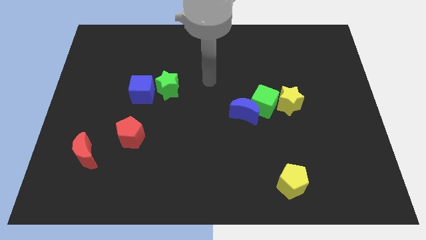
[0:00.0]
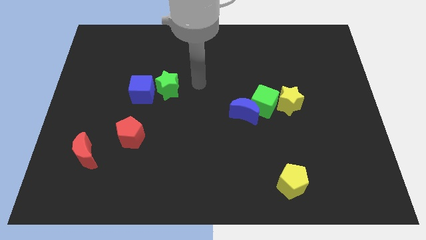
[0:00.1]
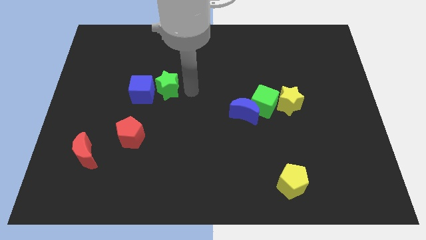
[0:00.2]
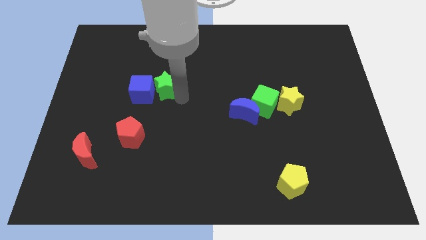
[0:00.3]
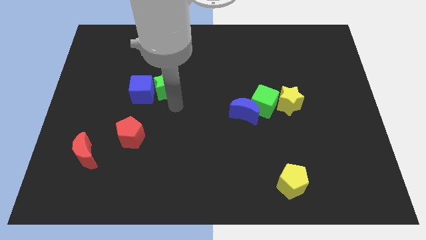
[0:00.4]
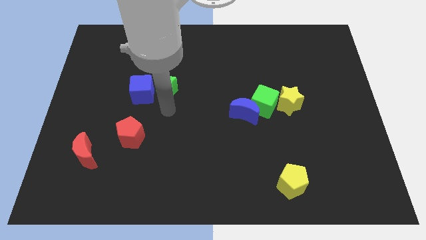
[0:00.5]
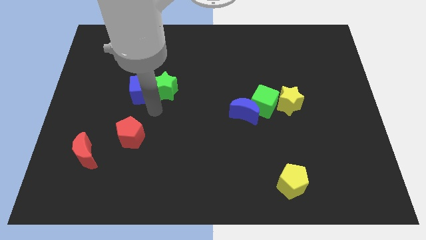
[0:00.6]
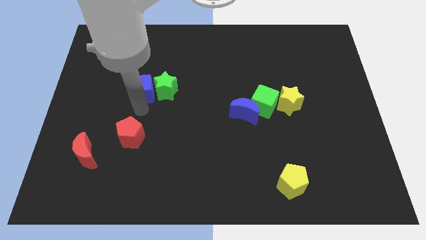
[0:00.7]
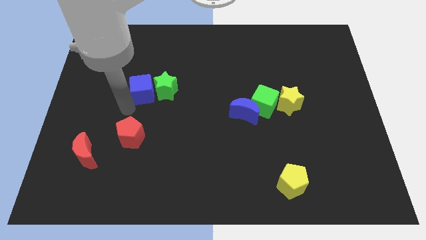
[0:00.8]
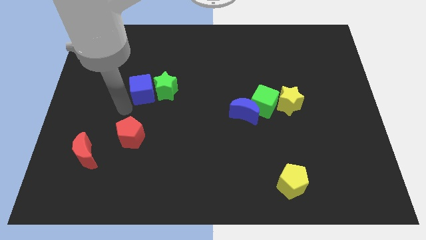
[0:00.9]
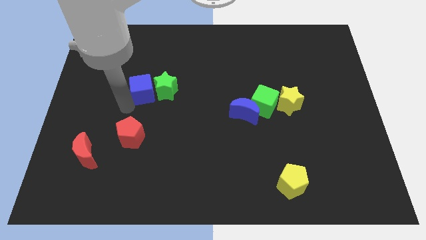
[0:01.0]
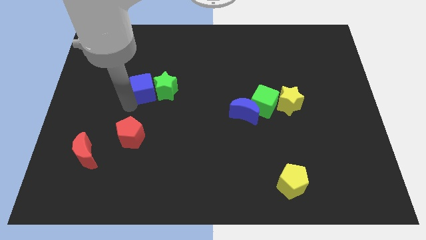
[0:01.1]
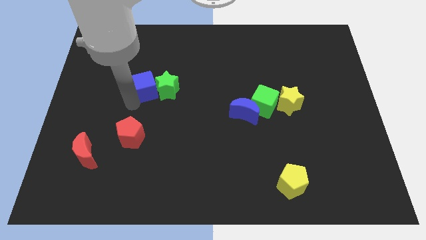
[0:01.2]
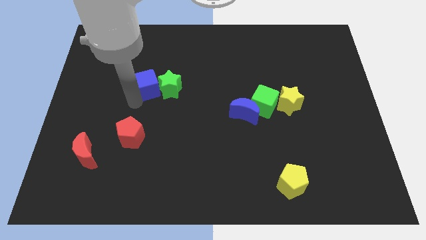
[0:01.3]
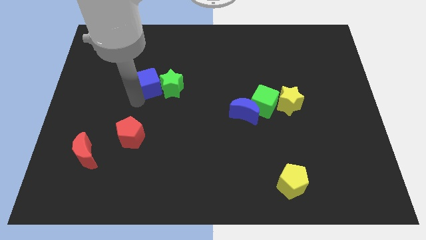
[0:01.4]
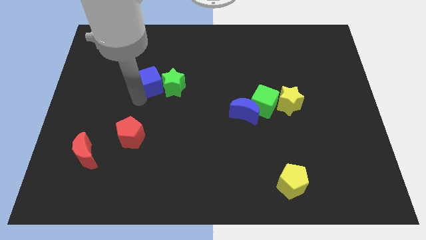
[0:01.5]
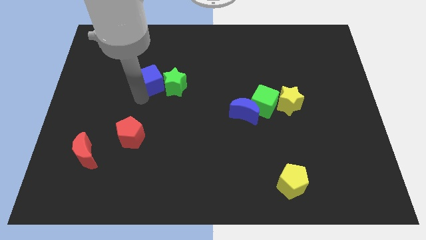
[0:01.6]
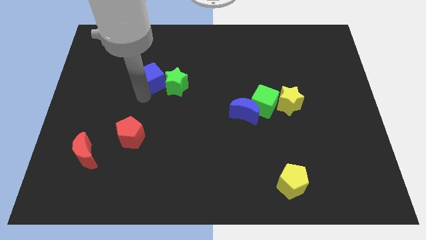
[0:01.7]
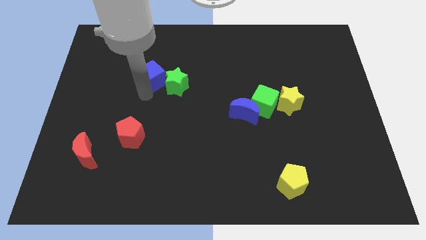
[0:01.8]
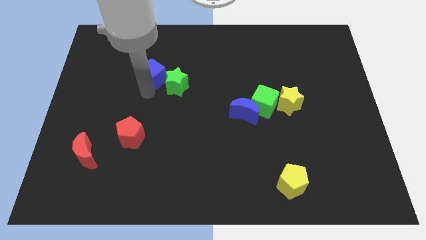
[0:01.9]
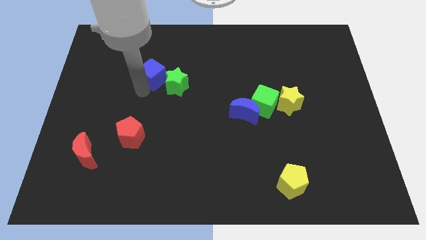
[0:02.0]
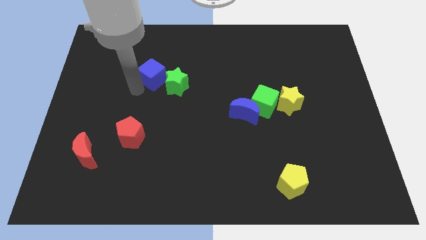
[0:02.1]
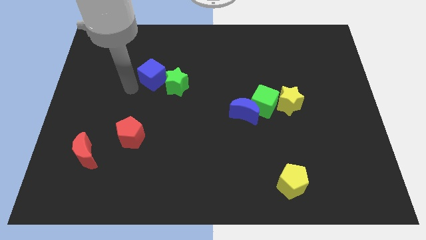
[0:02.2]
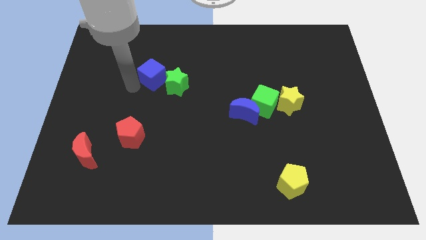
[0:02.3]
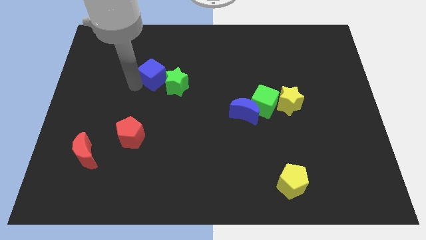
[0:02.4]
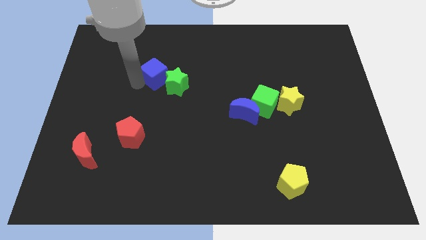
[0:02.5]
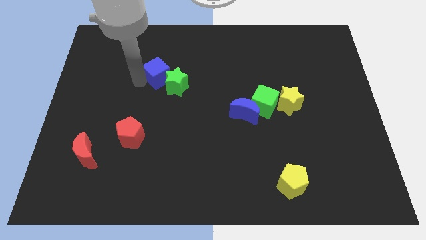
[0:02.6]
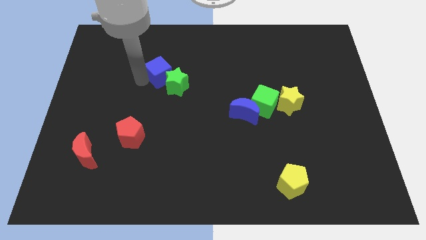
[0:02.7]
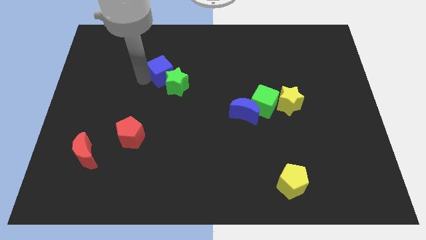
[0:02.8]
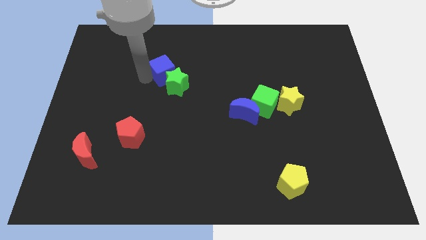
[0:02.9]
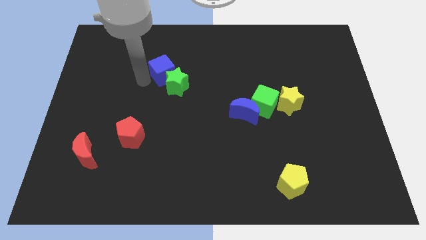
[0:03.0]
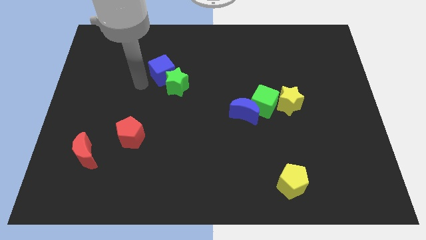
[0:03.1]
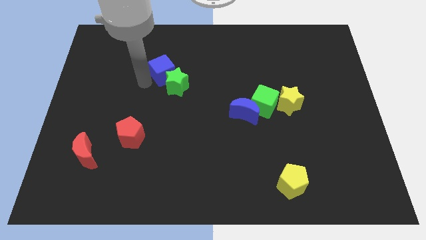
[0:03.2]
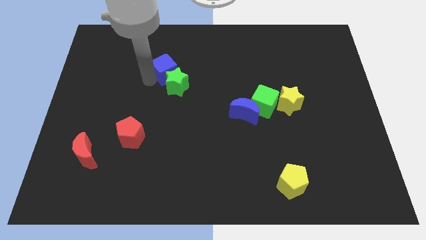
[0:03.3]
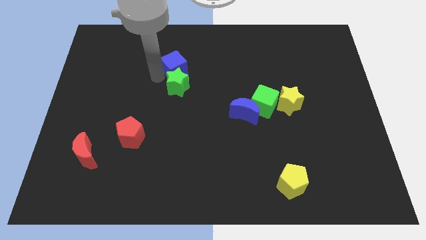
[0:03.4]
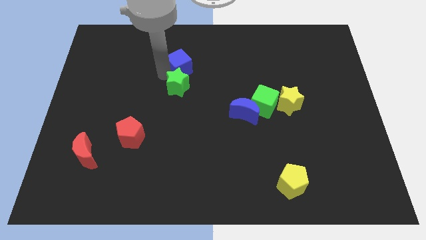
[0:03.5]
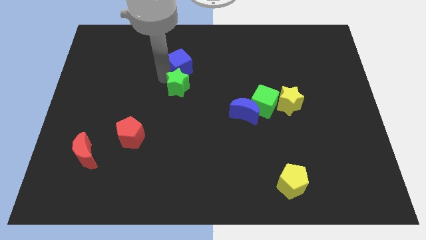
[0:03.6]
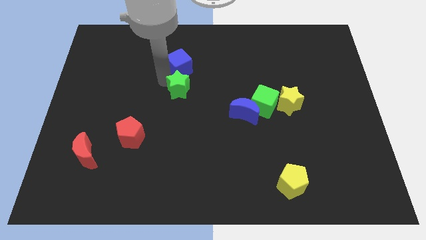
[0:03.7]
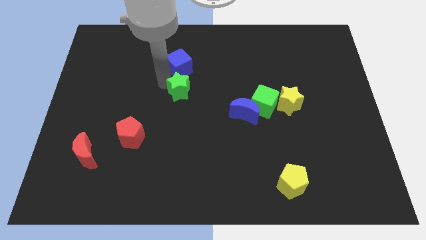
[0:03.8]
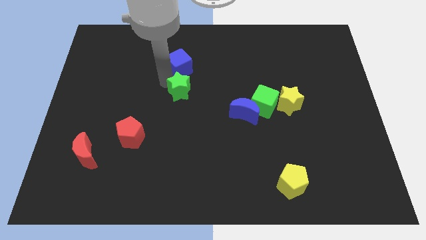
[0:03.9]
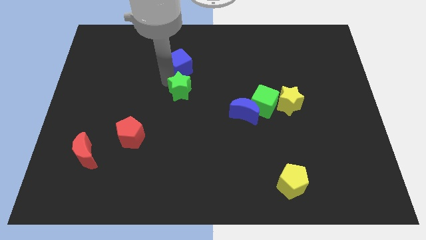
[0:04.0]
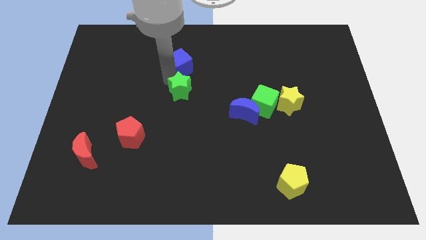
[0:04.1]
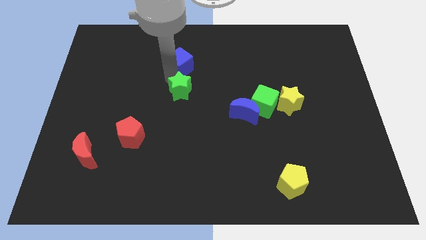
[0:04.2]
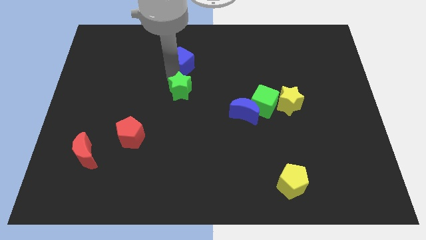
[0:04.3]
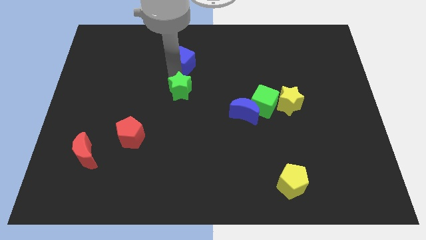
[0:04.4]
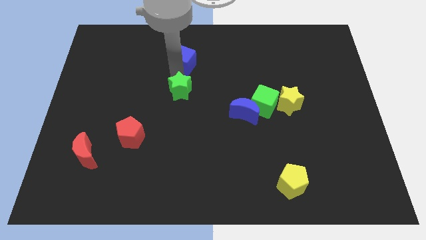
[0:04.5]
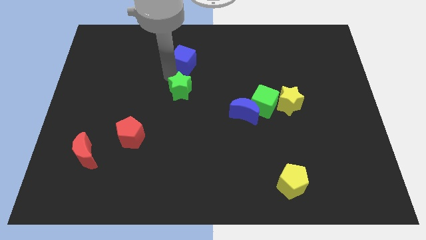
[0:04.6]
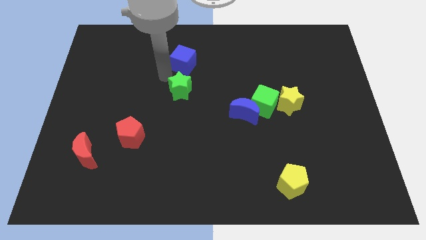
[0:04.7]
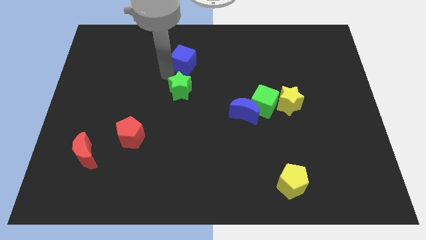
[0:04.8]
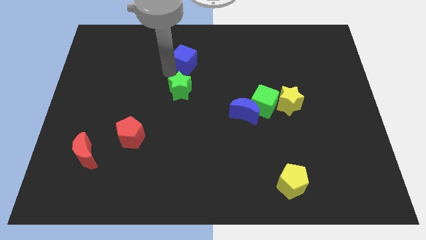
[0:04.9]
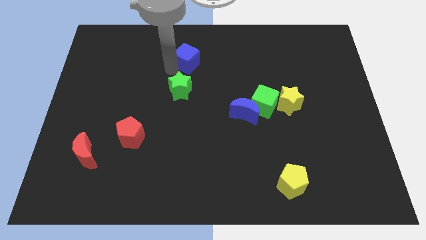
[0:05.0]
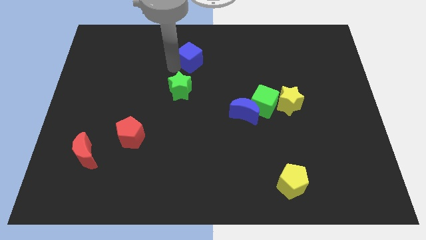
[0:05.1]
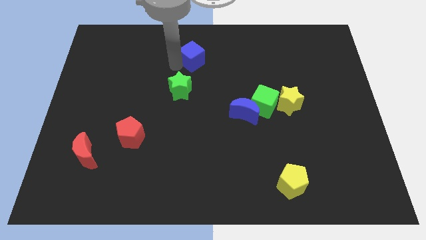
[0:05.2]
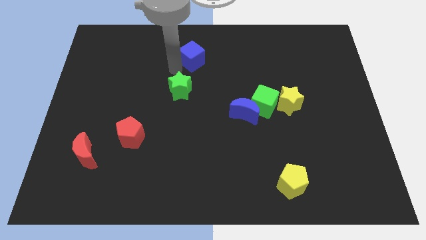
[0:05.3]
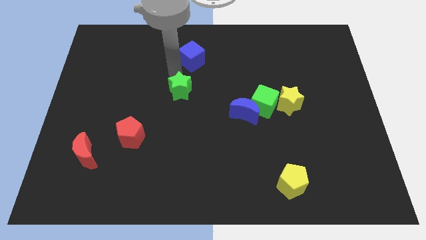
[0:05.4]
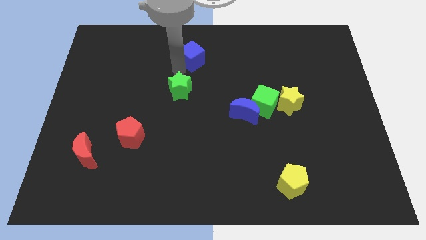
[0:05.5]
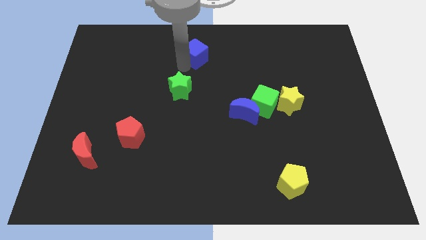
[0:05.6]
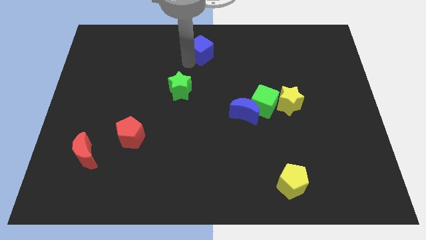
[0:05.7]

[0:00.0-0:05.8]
slide the blue cube to the top

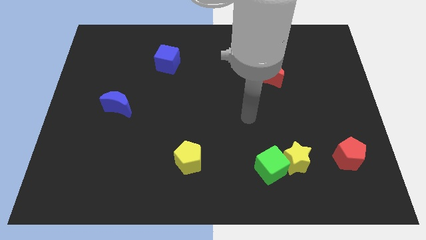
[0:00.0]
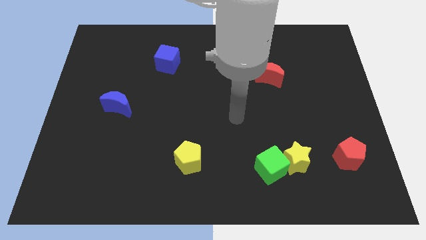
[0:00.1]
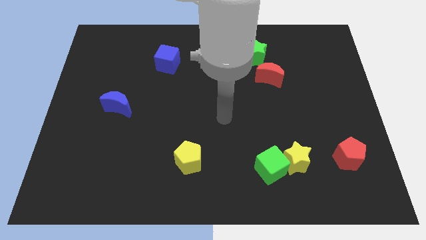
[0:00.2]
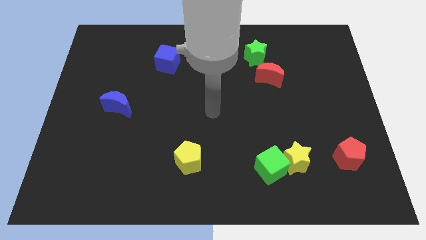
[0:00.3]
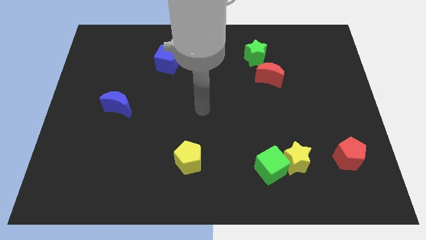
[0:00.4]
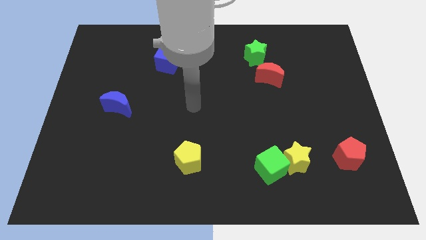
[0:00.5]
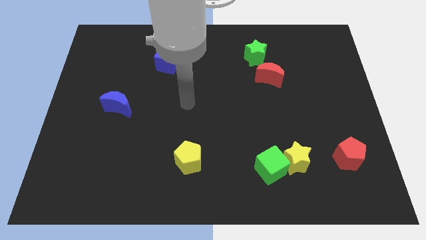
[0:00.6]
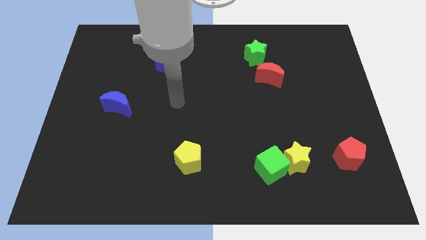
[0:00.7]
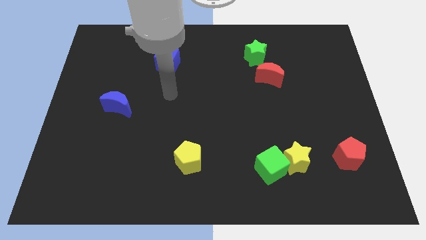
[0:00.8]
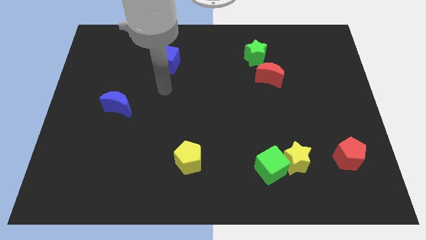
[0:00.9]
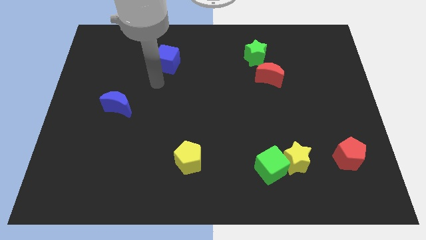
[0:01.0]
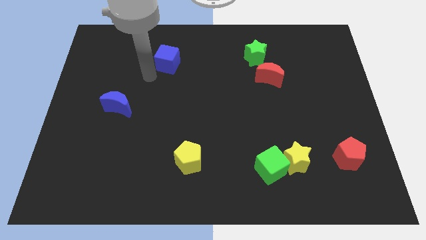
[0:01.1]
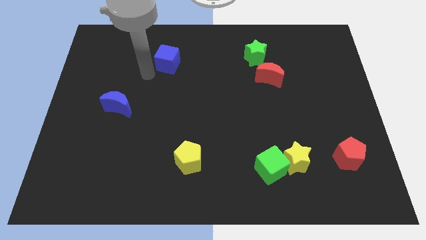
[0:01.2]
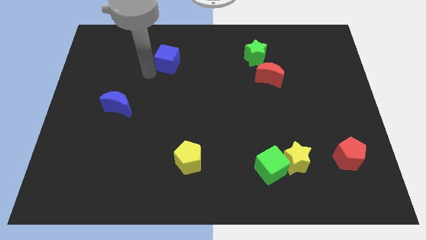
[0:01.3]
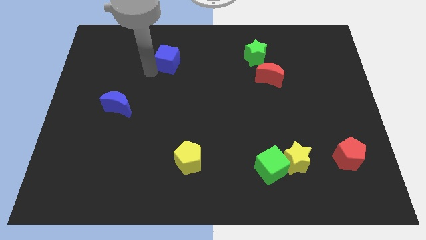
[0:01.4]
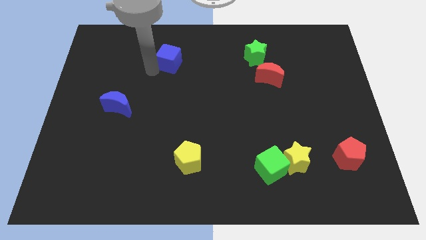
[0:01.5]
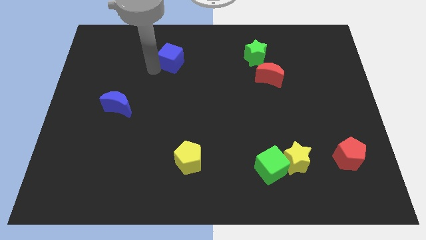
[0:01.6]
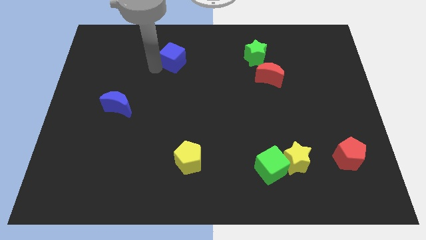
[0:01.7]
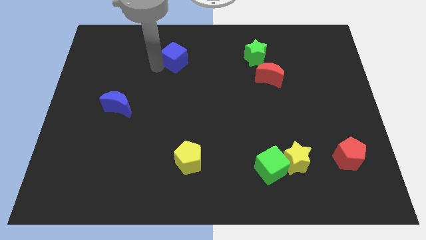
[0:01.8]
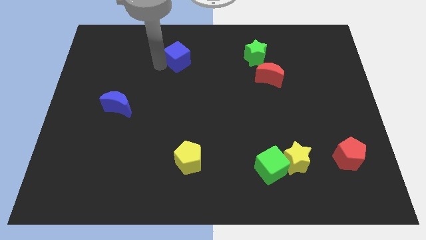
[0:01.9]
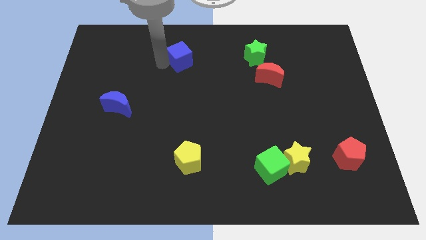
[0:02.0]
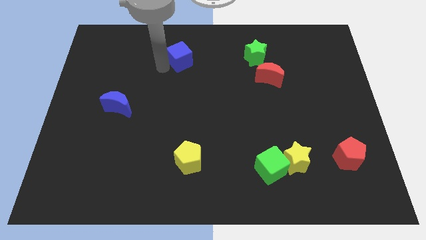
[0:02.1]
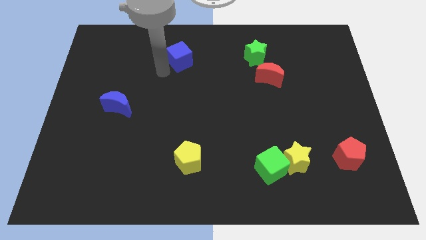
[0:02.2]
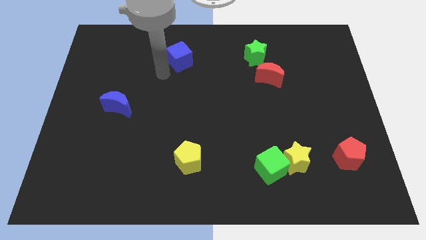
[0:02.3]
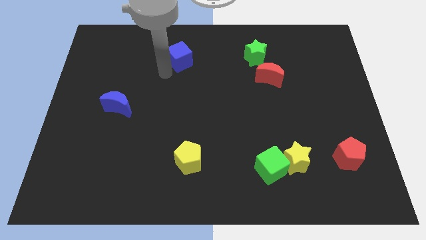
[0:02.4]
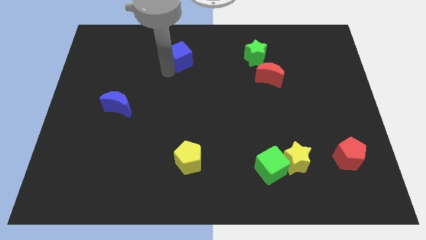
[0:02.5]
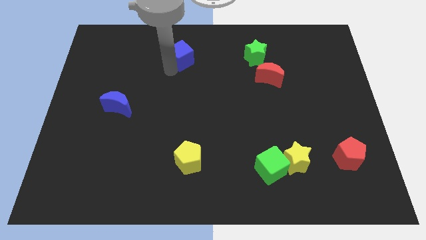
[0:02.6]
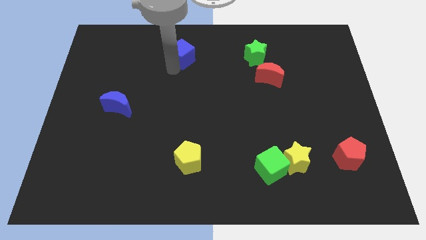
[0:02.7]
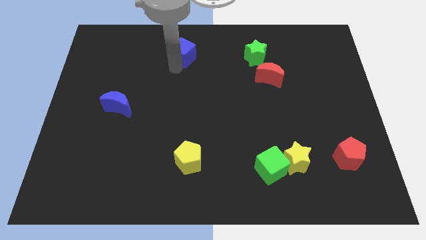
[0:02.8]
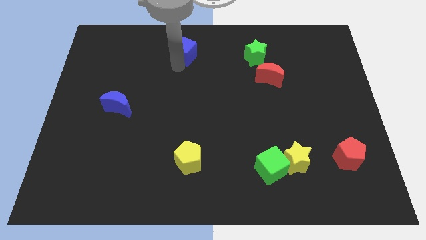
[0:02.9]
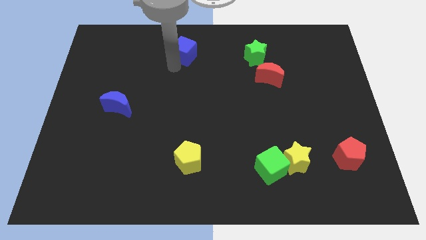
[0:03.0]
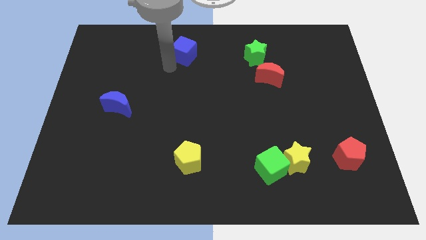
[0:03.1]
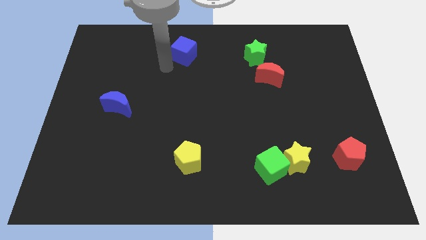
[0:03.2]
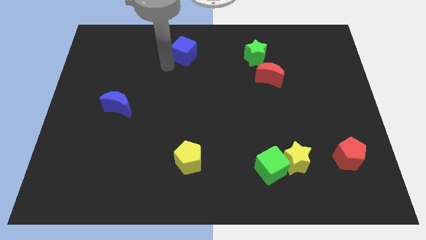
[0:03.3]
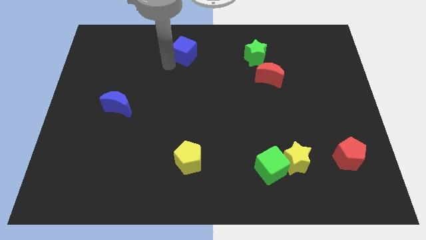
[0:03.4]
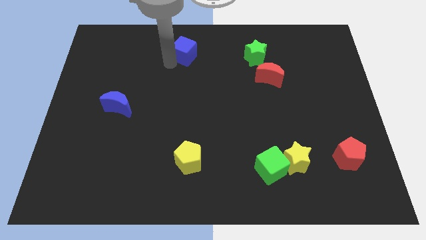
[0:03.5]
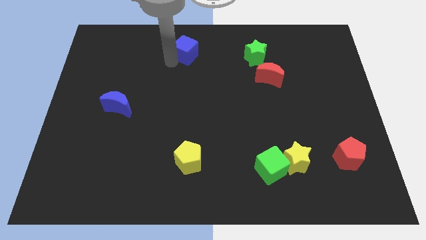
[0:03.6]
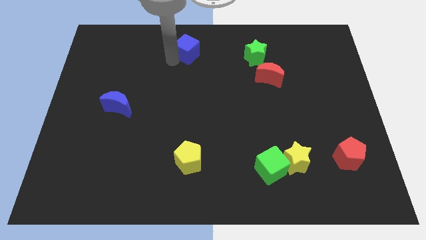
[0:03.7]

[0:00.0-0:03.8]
move the blue cube to the towards your base
